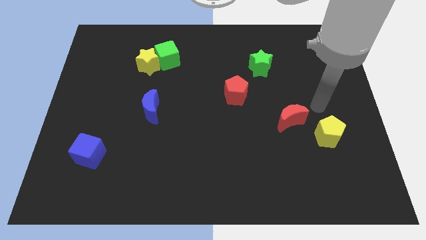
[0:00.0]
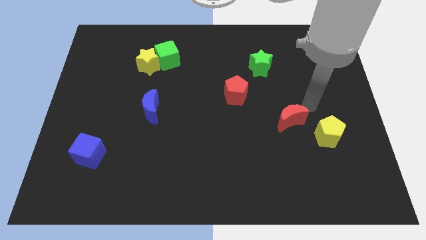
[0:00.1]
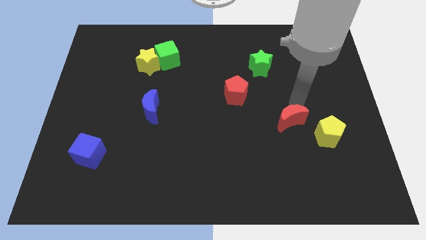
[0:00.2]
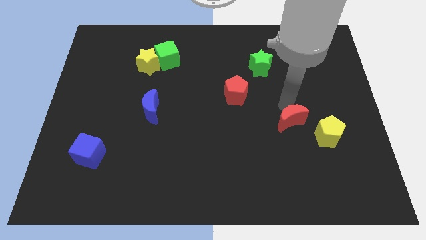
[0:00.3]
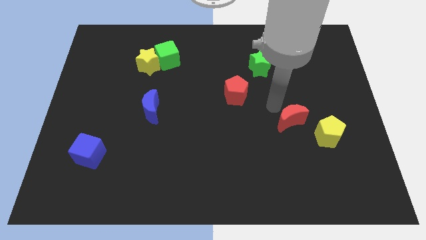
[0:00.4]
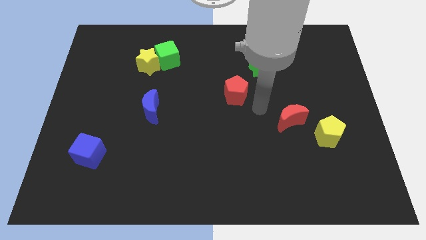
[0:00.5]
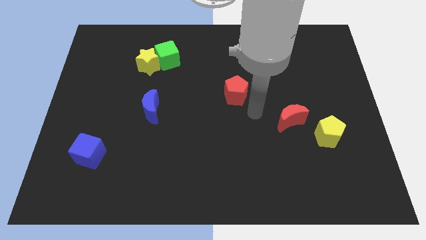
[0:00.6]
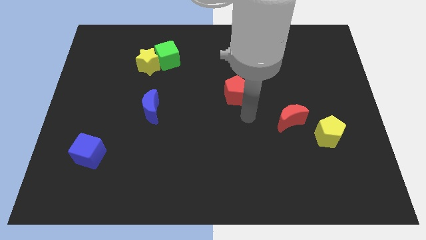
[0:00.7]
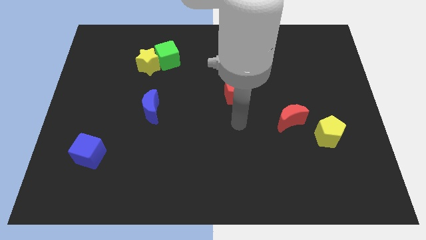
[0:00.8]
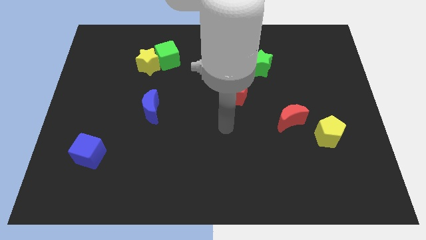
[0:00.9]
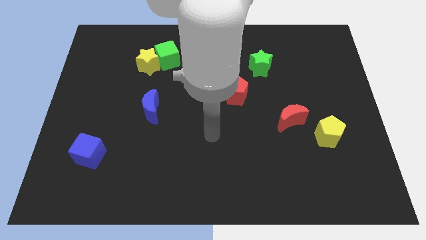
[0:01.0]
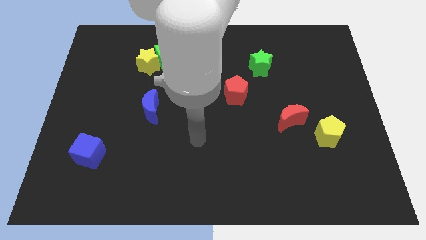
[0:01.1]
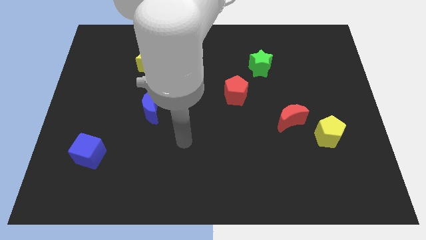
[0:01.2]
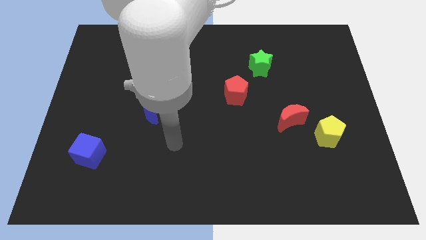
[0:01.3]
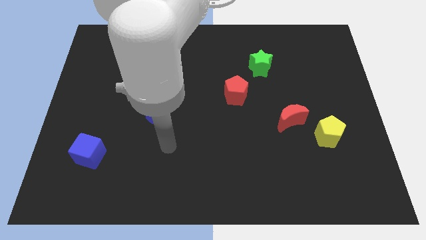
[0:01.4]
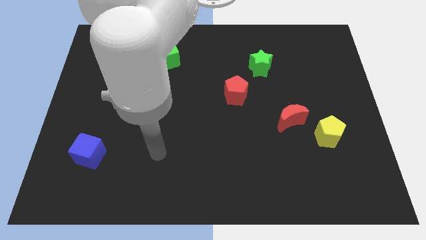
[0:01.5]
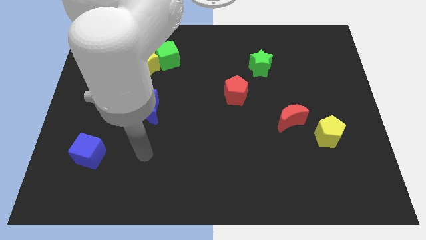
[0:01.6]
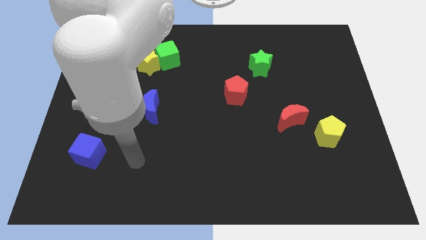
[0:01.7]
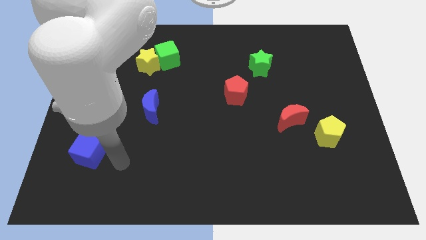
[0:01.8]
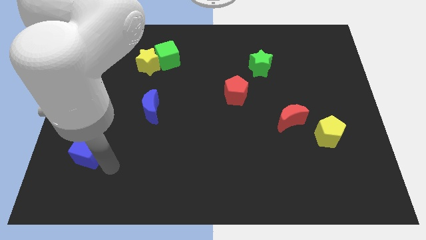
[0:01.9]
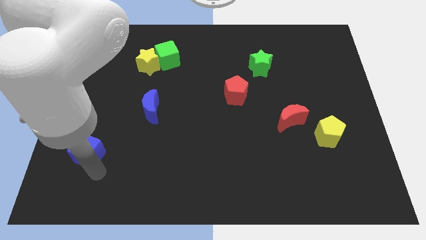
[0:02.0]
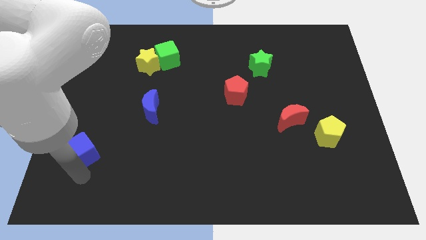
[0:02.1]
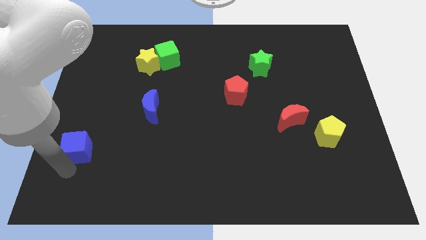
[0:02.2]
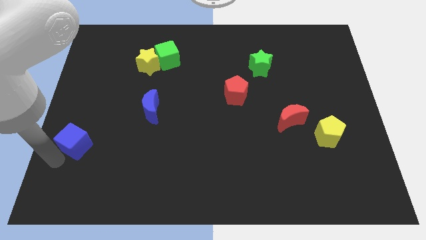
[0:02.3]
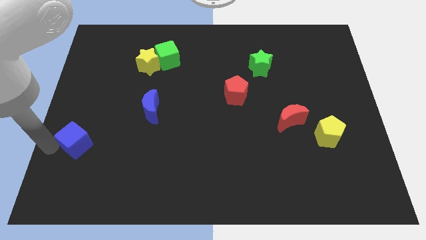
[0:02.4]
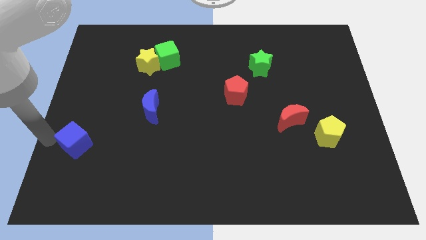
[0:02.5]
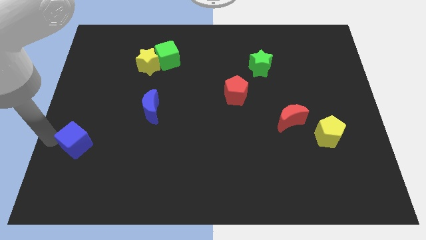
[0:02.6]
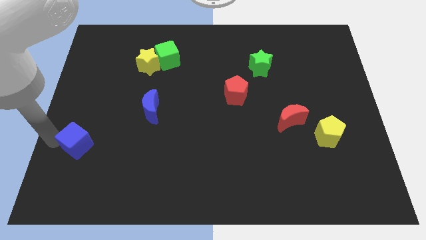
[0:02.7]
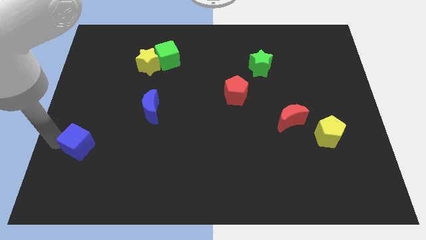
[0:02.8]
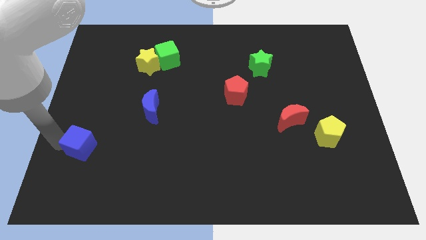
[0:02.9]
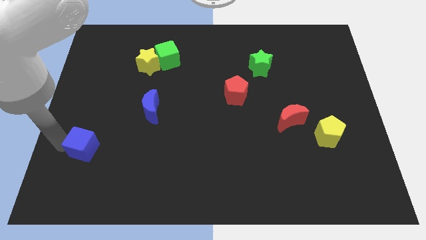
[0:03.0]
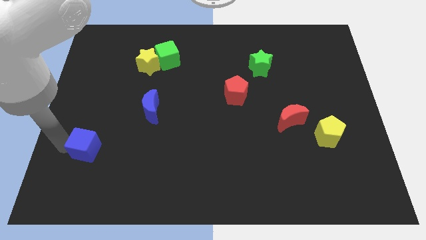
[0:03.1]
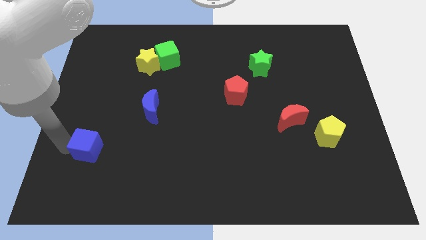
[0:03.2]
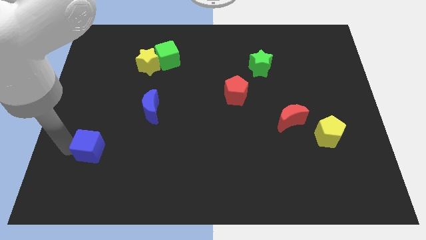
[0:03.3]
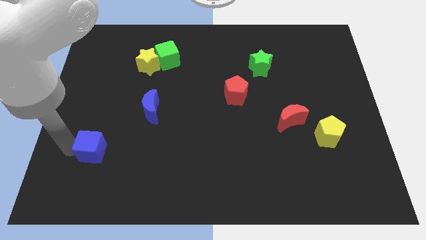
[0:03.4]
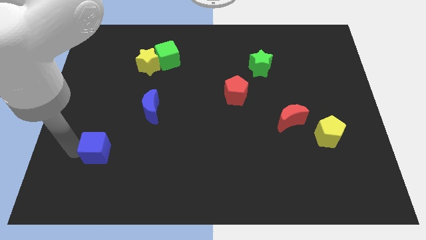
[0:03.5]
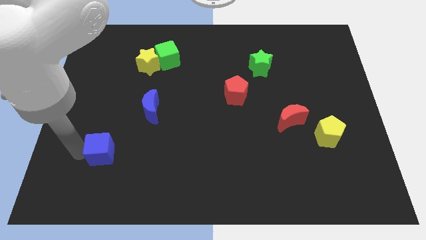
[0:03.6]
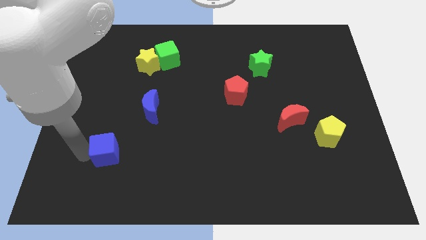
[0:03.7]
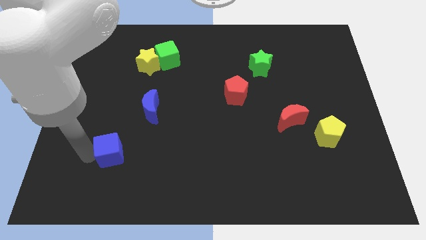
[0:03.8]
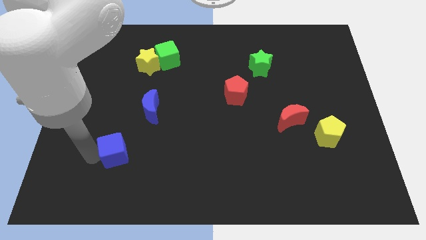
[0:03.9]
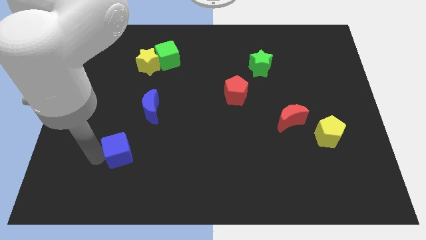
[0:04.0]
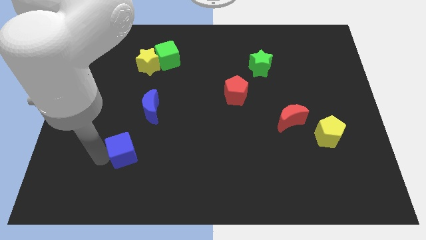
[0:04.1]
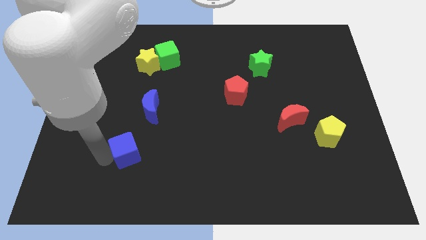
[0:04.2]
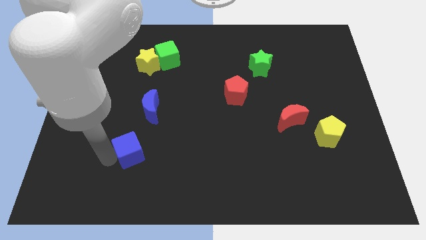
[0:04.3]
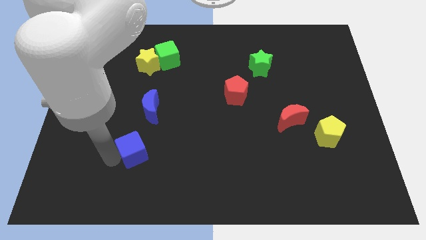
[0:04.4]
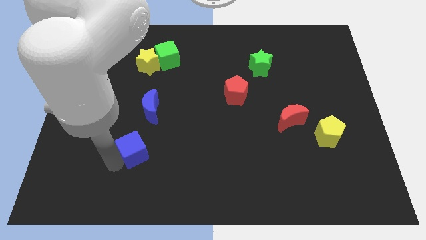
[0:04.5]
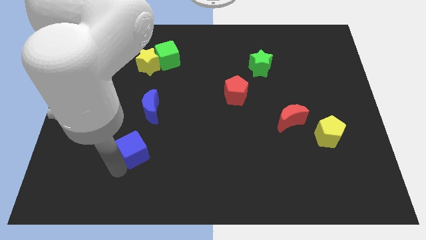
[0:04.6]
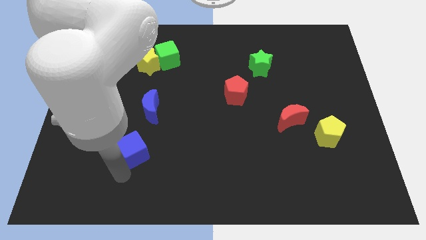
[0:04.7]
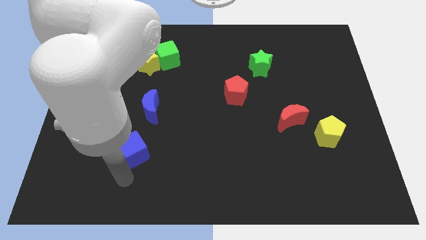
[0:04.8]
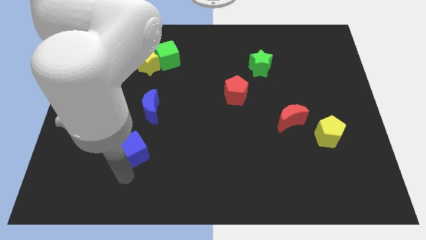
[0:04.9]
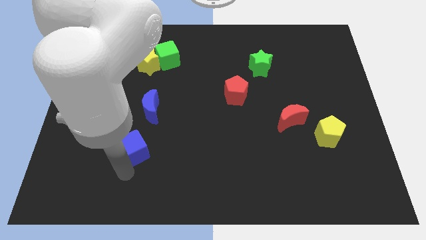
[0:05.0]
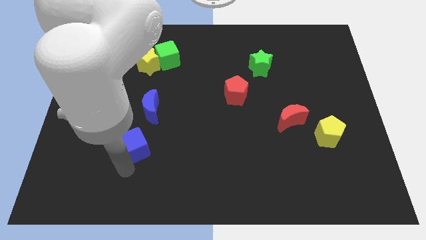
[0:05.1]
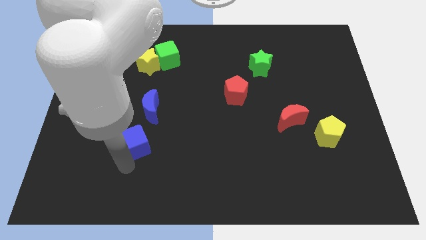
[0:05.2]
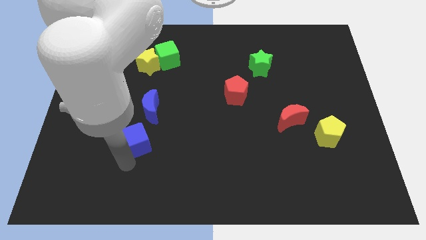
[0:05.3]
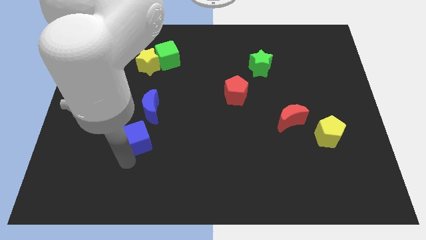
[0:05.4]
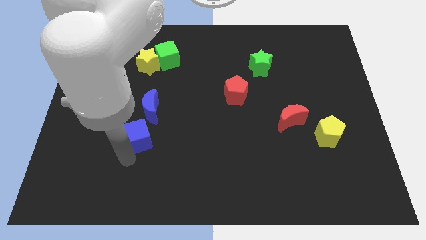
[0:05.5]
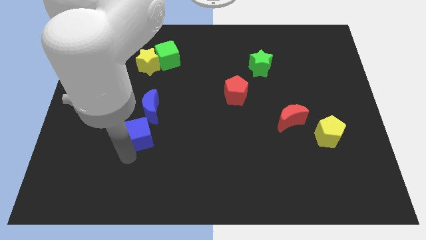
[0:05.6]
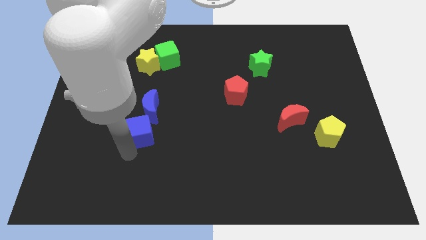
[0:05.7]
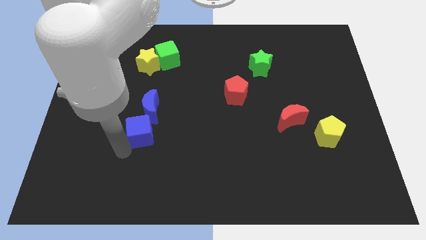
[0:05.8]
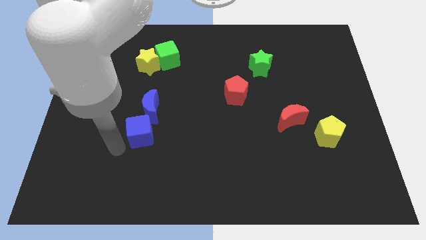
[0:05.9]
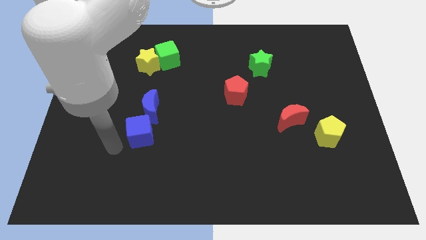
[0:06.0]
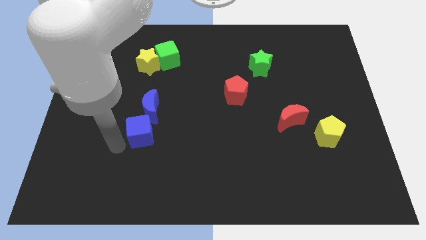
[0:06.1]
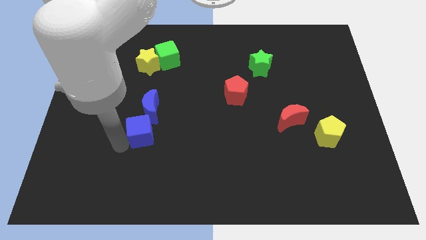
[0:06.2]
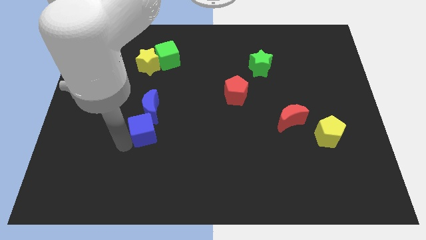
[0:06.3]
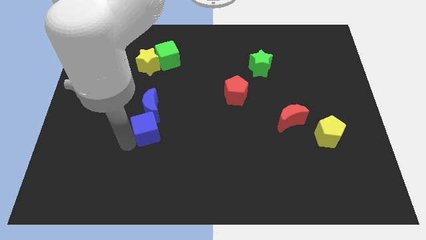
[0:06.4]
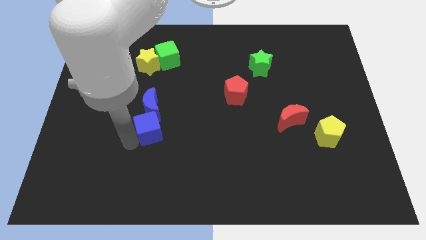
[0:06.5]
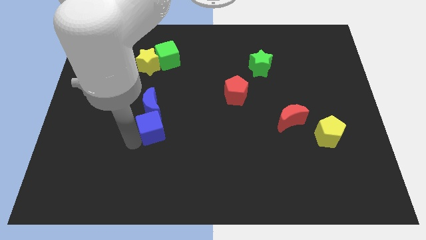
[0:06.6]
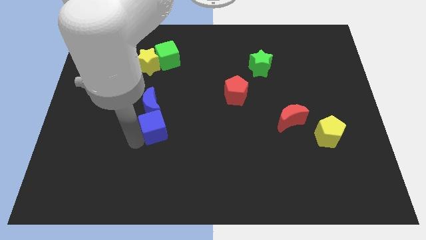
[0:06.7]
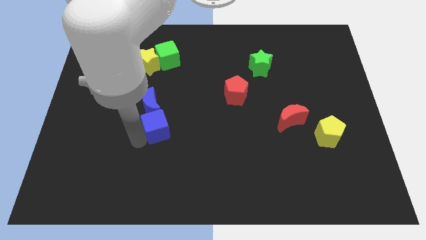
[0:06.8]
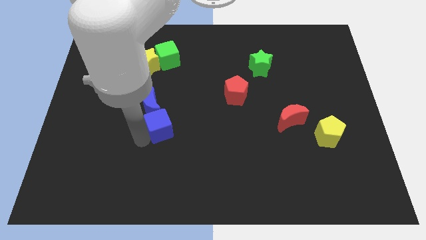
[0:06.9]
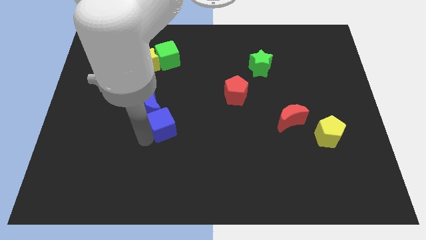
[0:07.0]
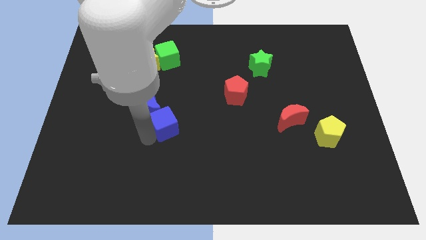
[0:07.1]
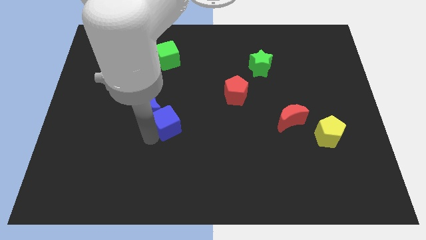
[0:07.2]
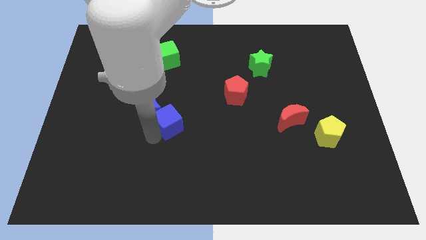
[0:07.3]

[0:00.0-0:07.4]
move the blue cube to the middle of the board

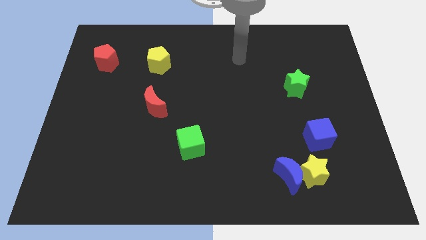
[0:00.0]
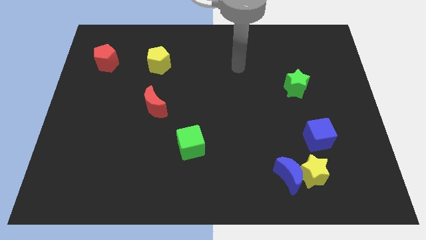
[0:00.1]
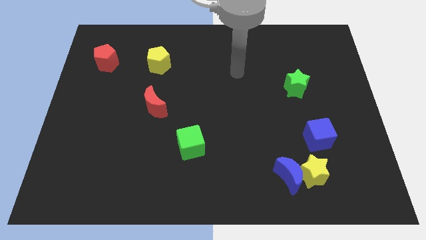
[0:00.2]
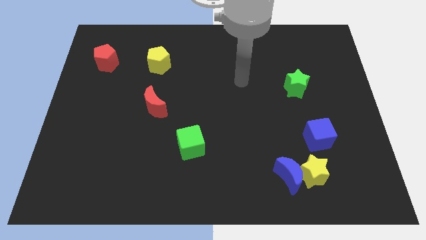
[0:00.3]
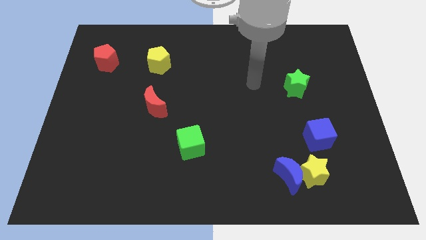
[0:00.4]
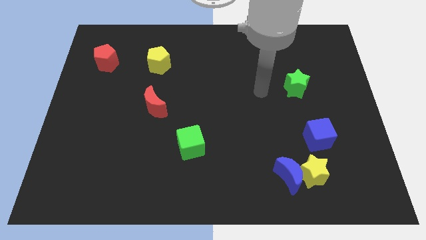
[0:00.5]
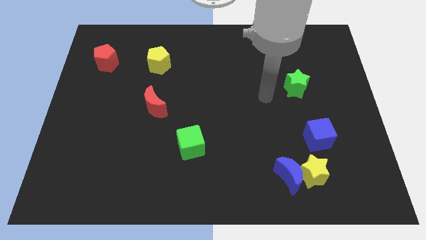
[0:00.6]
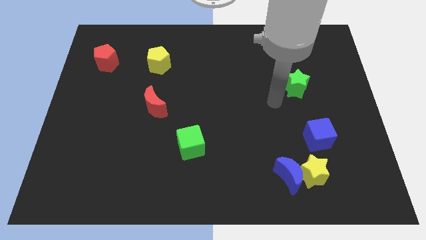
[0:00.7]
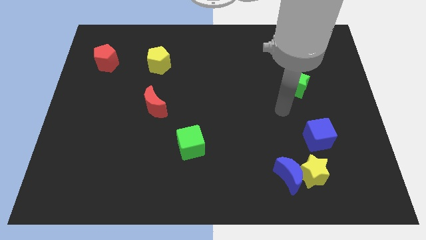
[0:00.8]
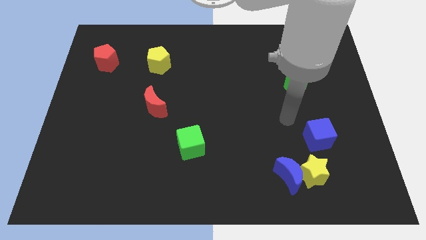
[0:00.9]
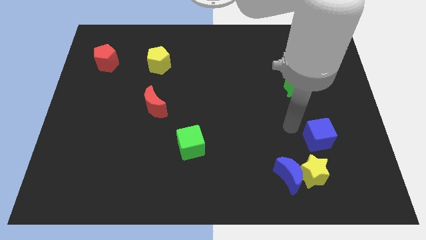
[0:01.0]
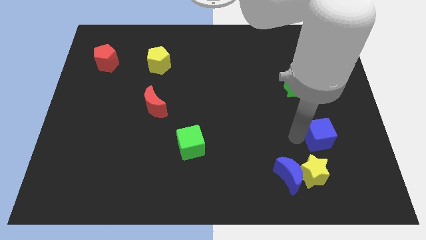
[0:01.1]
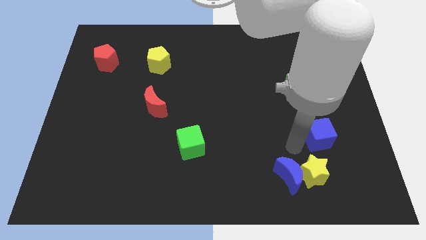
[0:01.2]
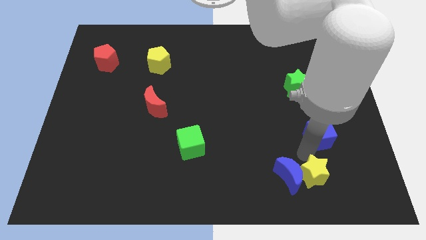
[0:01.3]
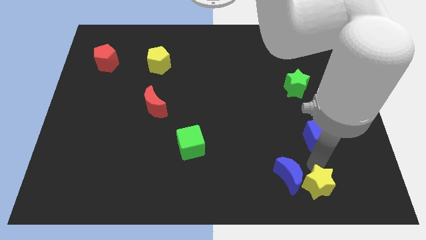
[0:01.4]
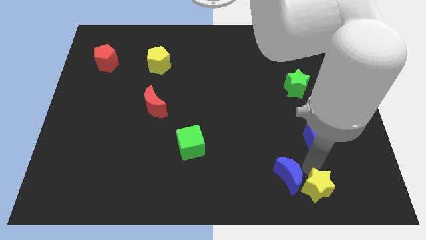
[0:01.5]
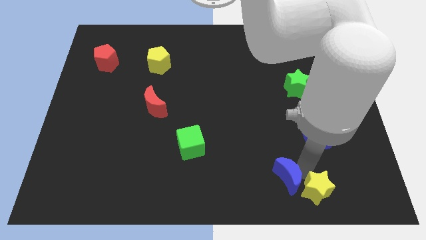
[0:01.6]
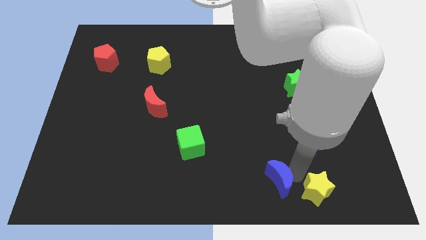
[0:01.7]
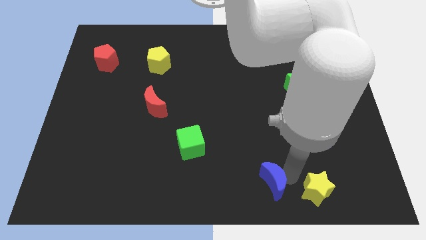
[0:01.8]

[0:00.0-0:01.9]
push the blue moon to the bottom side
